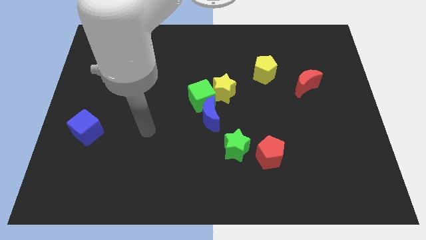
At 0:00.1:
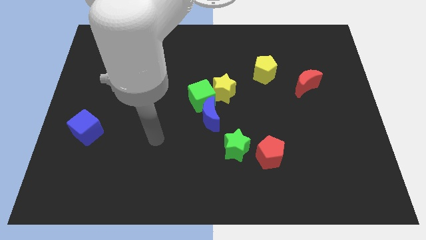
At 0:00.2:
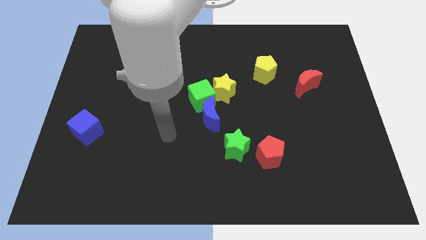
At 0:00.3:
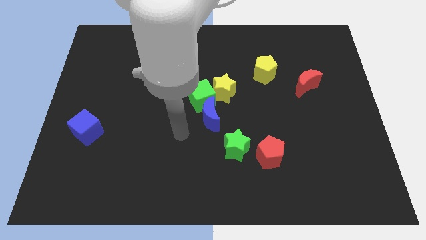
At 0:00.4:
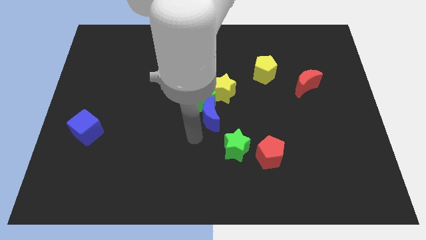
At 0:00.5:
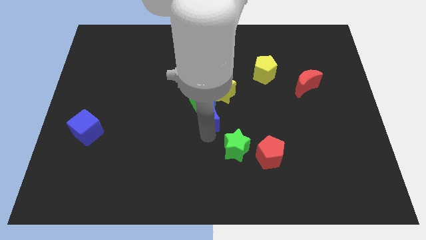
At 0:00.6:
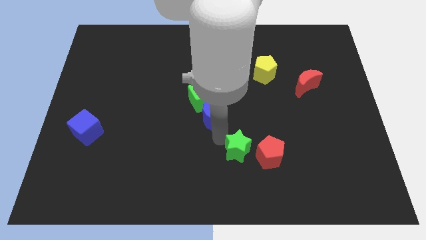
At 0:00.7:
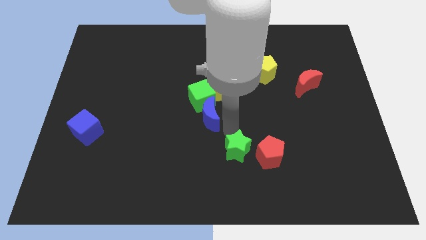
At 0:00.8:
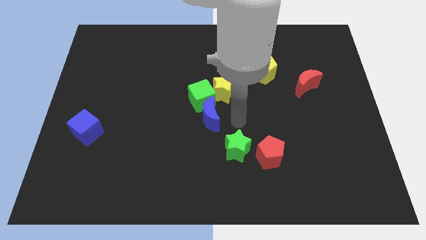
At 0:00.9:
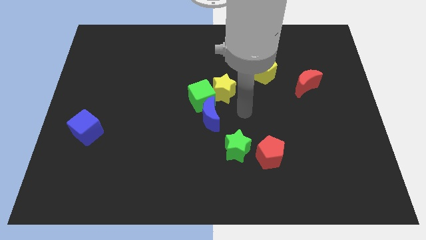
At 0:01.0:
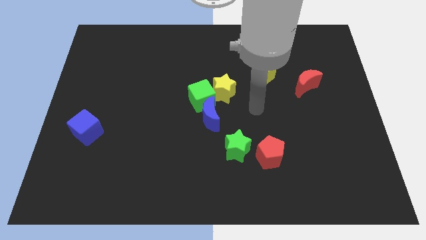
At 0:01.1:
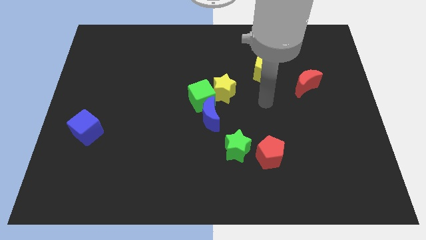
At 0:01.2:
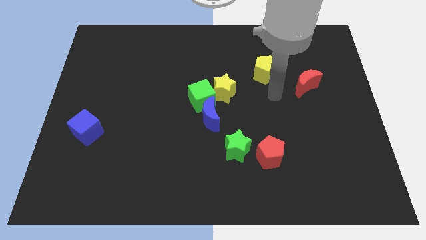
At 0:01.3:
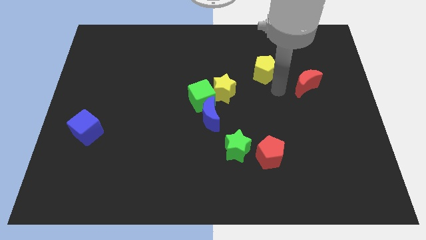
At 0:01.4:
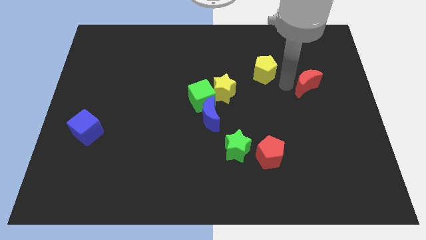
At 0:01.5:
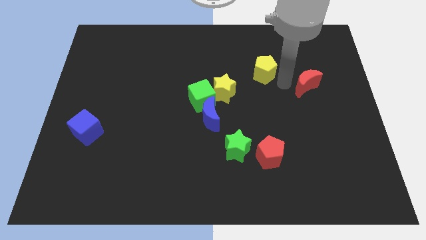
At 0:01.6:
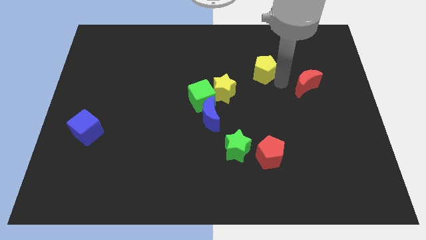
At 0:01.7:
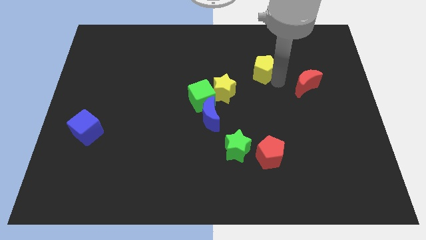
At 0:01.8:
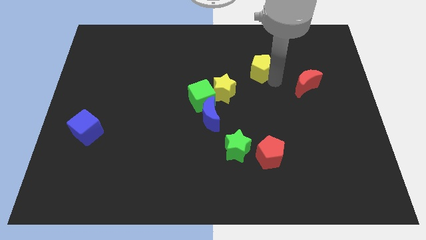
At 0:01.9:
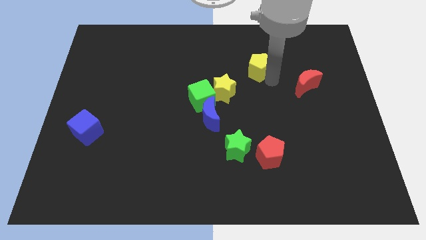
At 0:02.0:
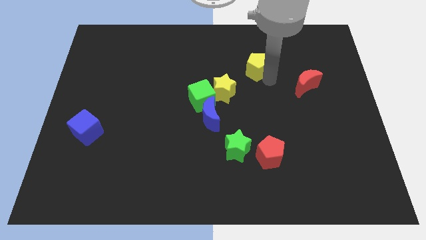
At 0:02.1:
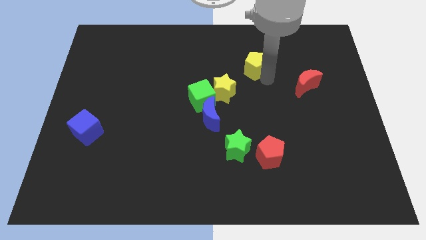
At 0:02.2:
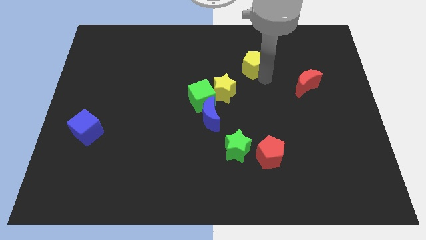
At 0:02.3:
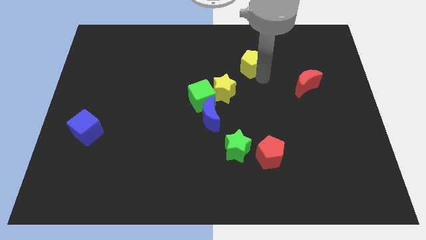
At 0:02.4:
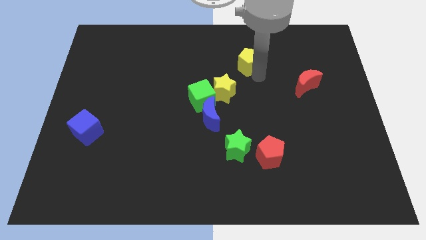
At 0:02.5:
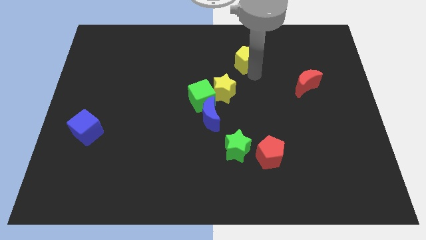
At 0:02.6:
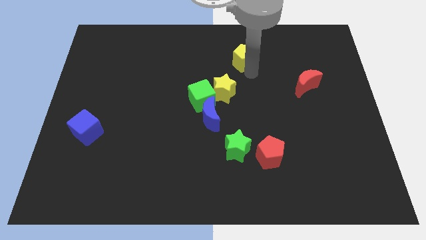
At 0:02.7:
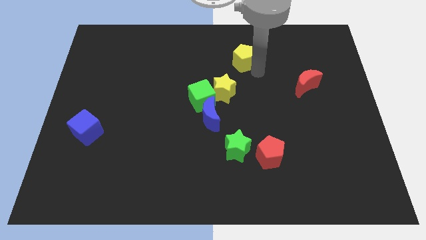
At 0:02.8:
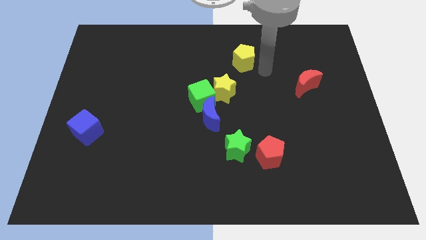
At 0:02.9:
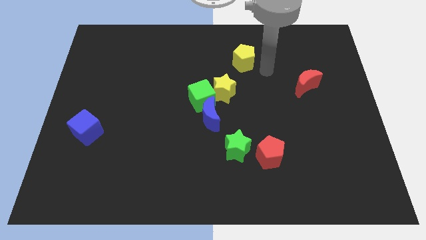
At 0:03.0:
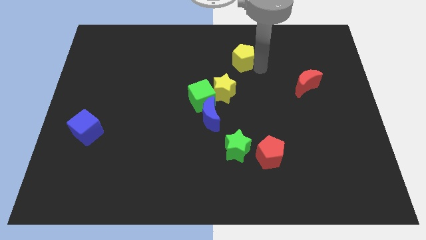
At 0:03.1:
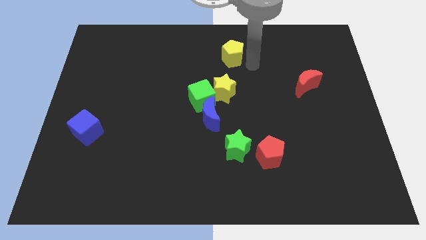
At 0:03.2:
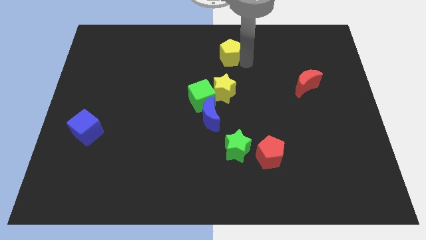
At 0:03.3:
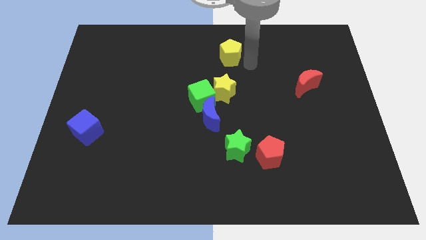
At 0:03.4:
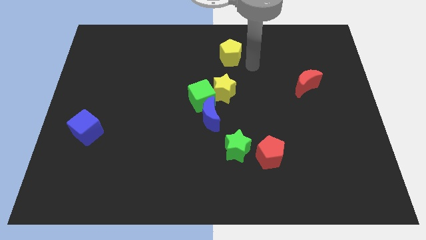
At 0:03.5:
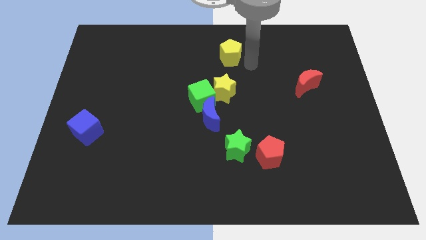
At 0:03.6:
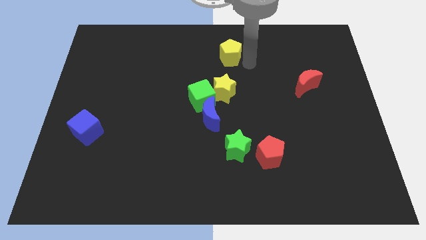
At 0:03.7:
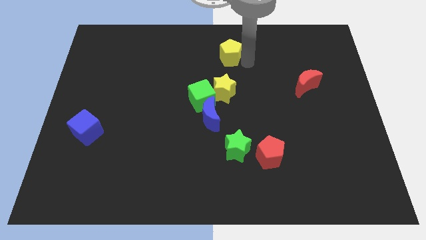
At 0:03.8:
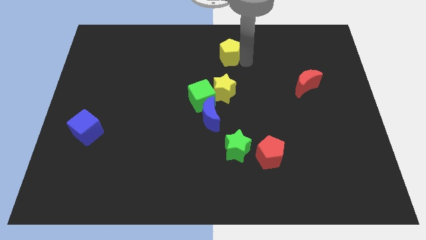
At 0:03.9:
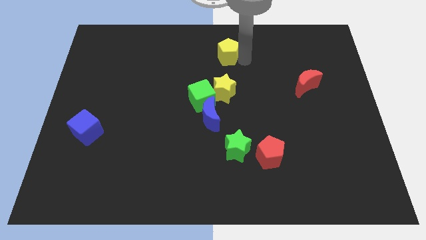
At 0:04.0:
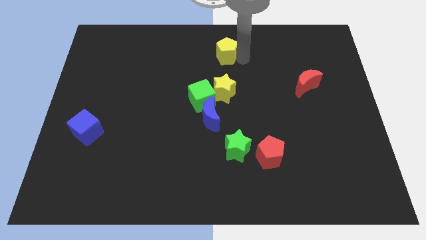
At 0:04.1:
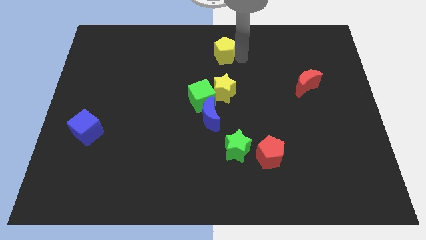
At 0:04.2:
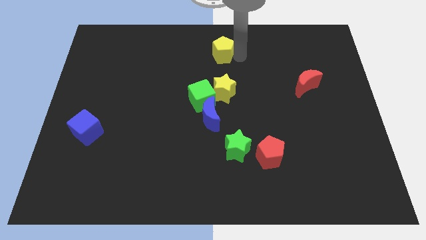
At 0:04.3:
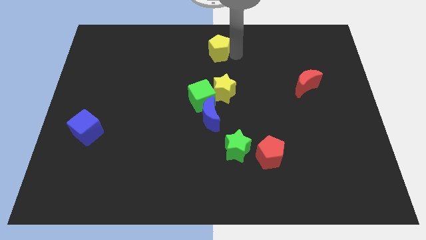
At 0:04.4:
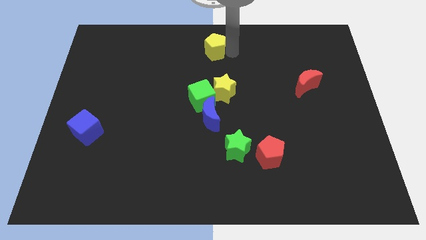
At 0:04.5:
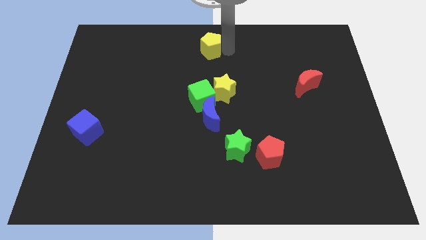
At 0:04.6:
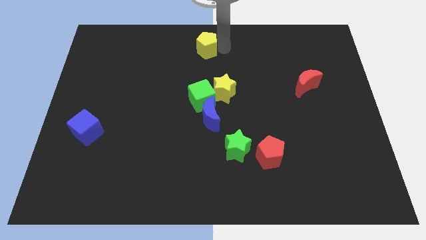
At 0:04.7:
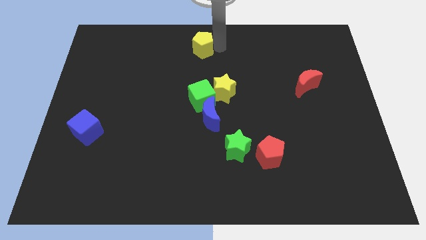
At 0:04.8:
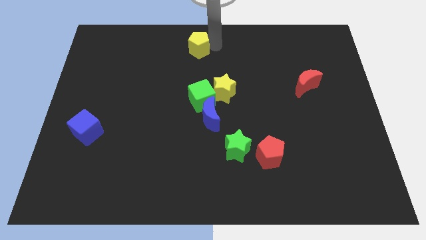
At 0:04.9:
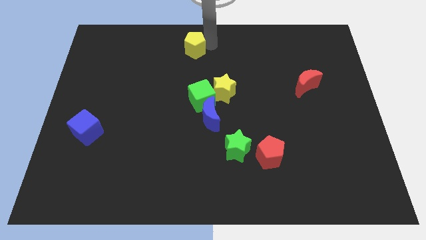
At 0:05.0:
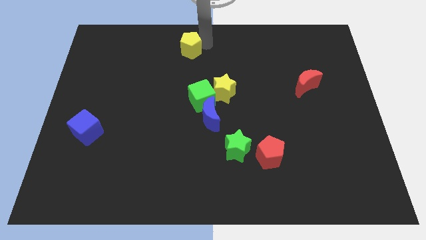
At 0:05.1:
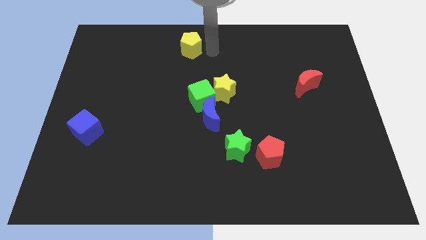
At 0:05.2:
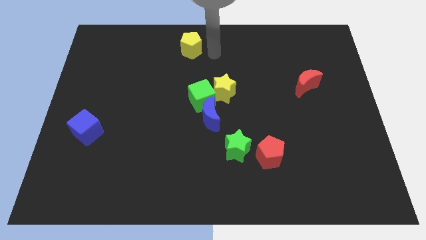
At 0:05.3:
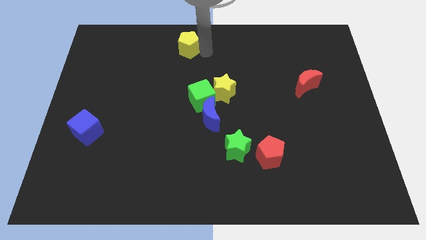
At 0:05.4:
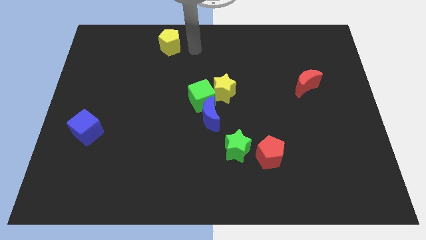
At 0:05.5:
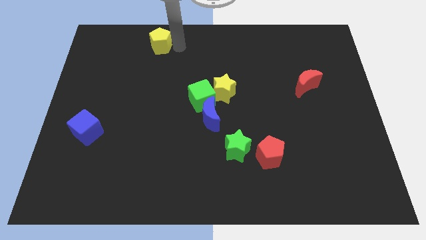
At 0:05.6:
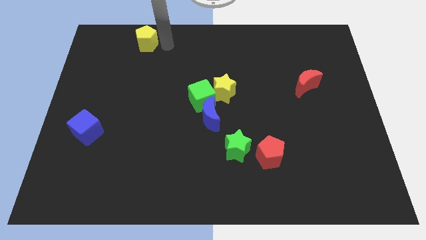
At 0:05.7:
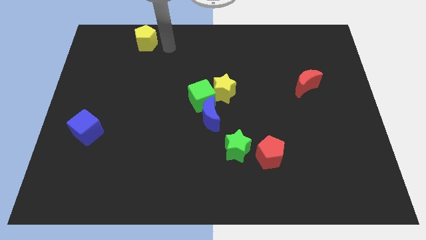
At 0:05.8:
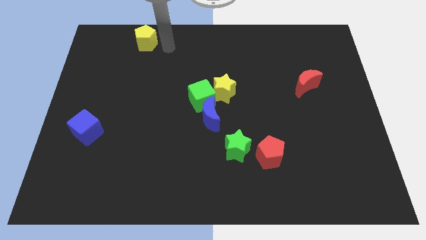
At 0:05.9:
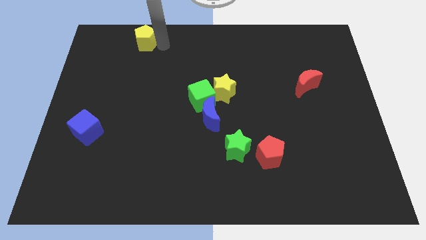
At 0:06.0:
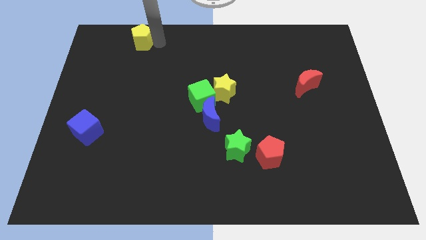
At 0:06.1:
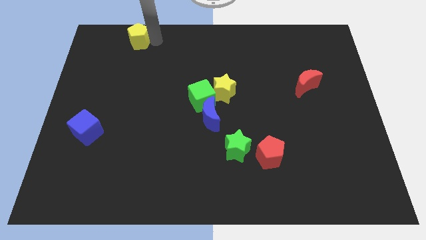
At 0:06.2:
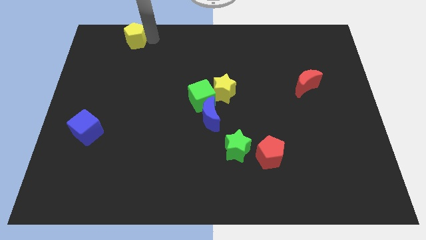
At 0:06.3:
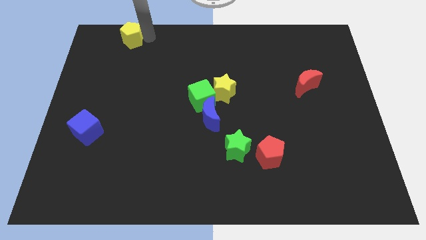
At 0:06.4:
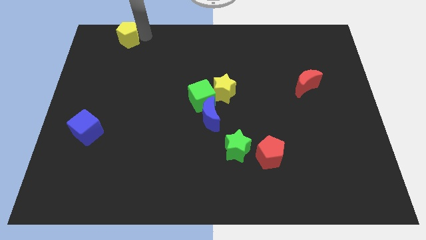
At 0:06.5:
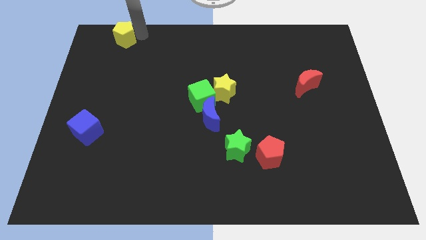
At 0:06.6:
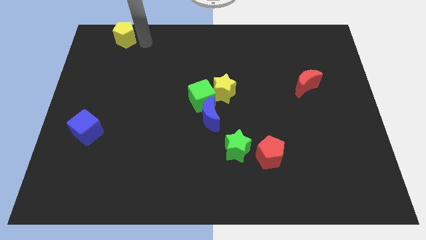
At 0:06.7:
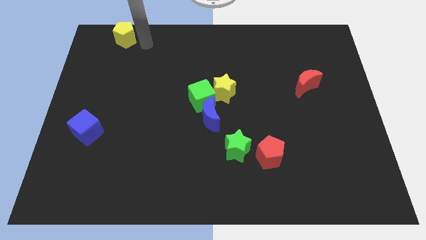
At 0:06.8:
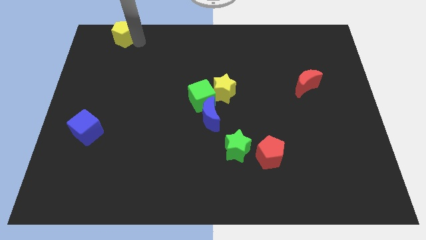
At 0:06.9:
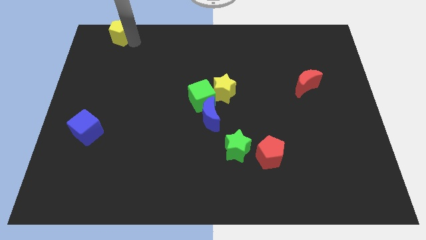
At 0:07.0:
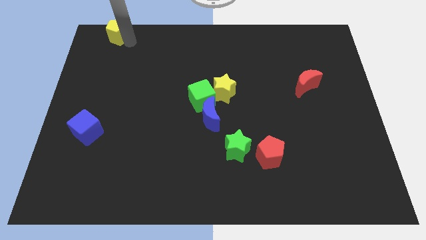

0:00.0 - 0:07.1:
push the yellow pentagon to the upper left corner
